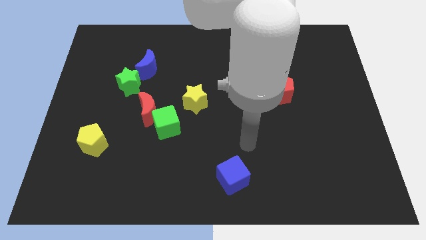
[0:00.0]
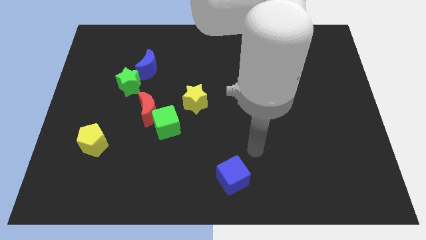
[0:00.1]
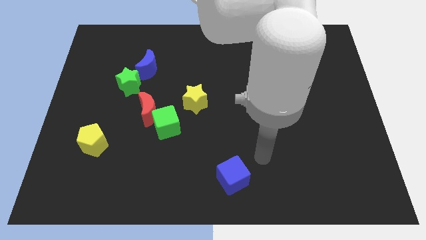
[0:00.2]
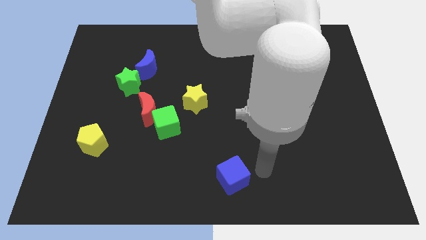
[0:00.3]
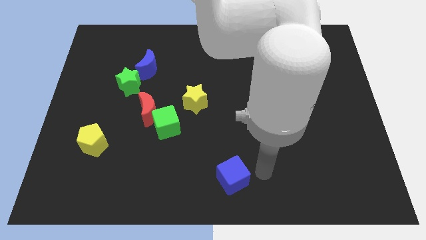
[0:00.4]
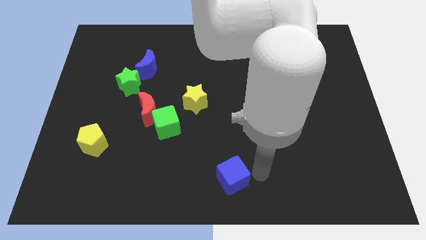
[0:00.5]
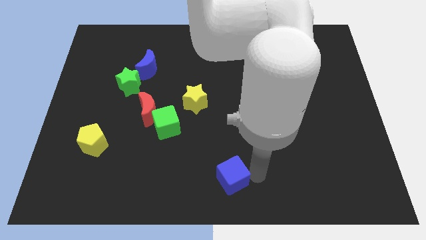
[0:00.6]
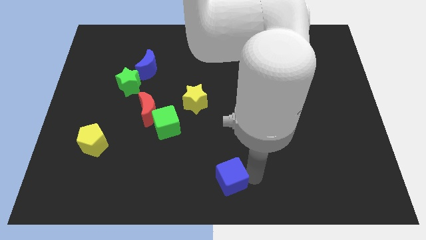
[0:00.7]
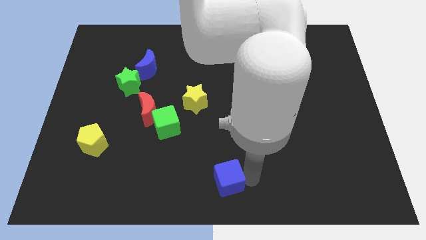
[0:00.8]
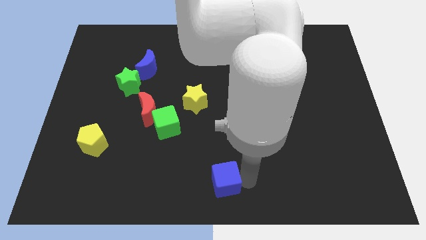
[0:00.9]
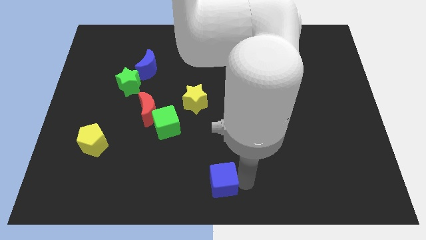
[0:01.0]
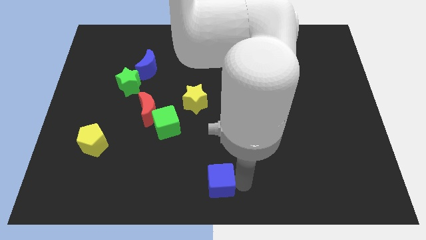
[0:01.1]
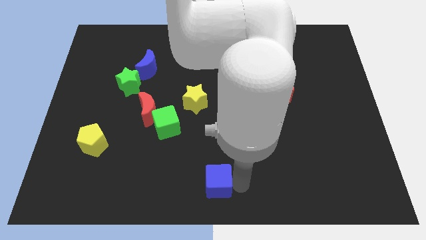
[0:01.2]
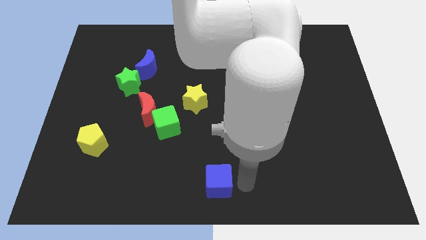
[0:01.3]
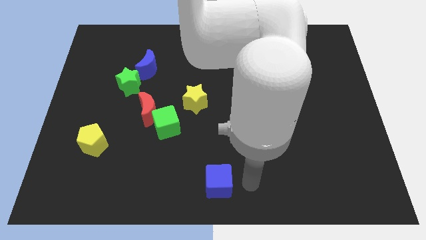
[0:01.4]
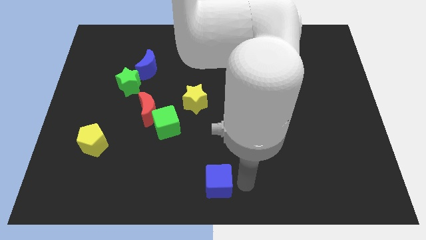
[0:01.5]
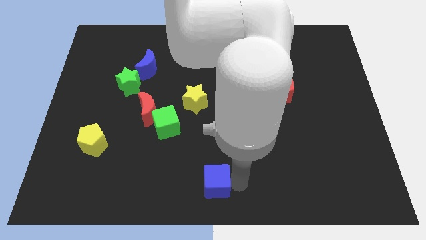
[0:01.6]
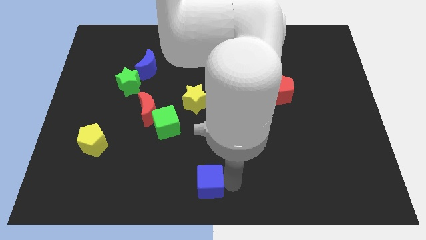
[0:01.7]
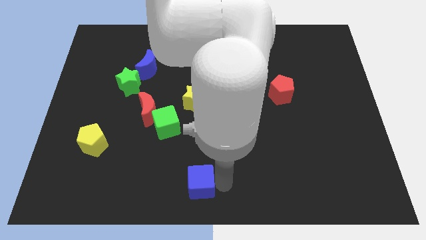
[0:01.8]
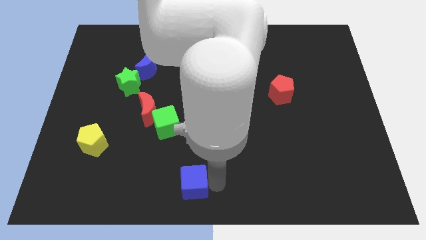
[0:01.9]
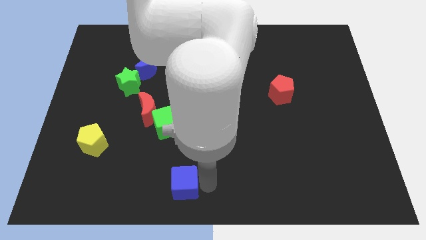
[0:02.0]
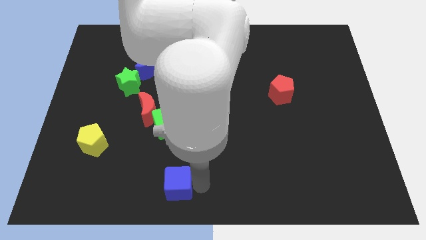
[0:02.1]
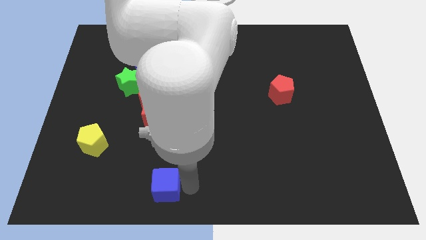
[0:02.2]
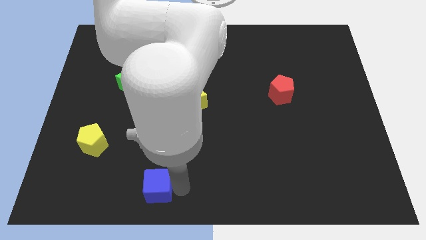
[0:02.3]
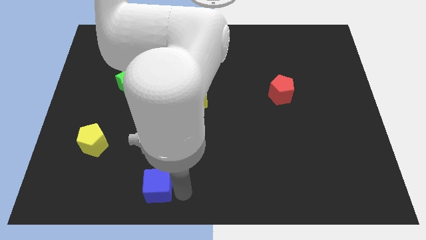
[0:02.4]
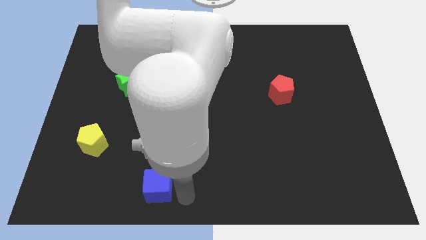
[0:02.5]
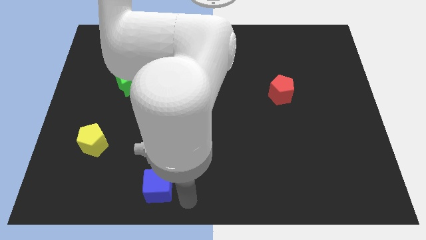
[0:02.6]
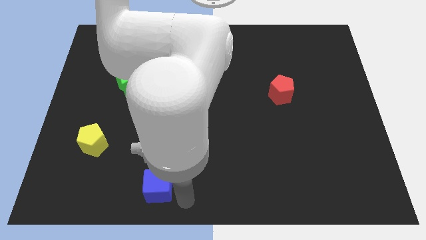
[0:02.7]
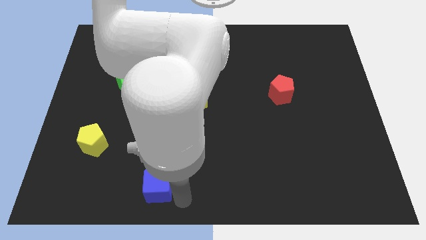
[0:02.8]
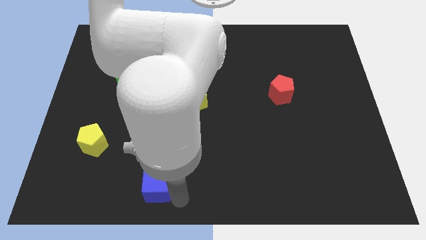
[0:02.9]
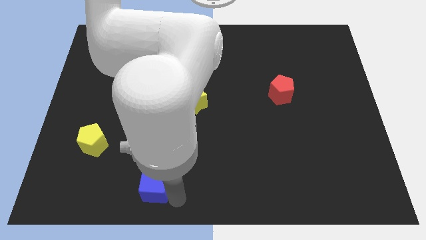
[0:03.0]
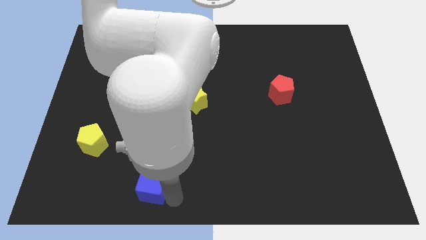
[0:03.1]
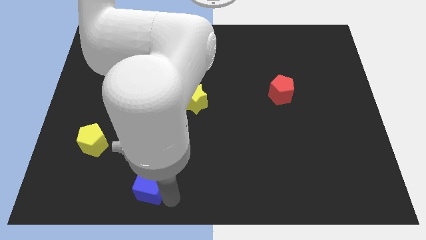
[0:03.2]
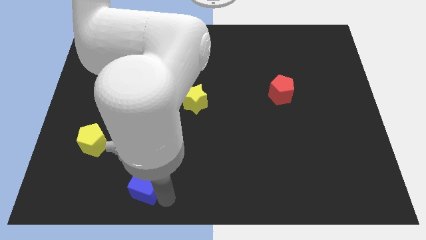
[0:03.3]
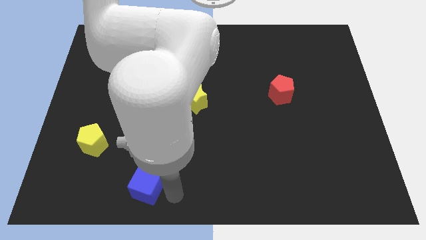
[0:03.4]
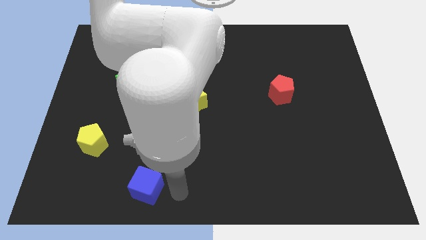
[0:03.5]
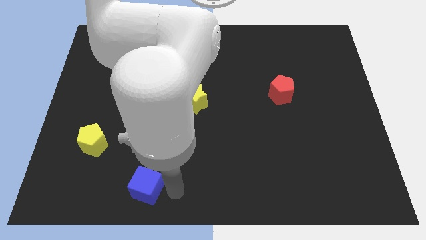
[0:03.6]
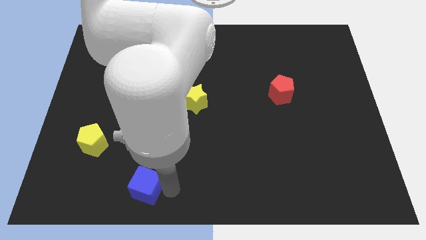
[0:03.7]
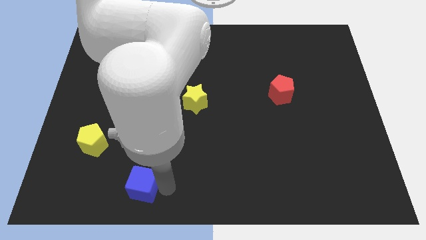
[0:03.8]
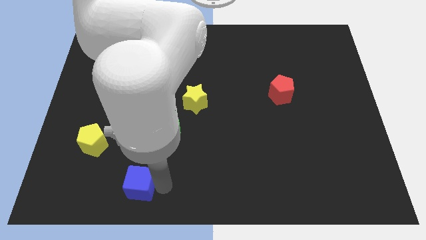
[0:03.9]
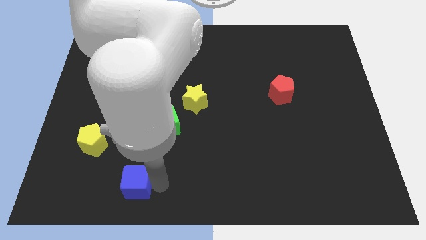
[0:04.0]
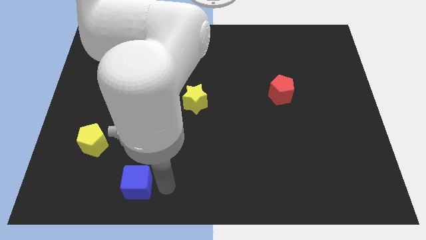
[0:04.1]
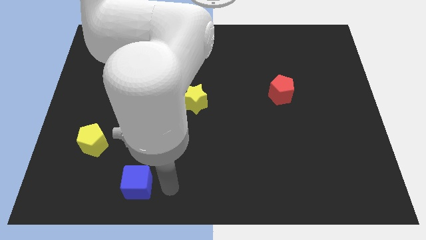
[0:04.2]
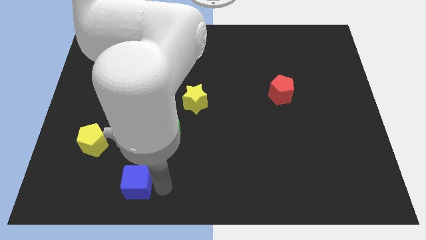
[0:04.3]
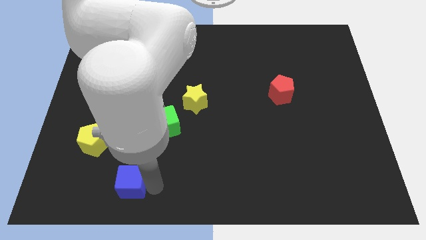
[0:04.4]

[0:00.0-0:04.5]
move the blue cube left

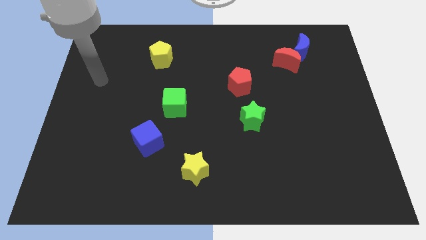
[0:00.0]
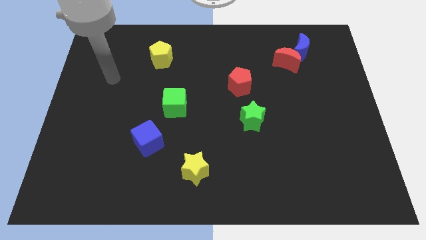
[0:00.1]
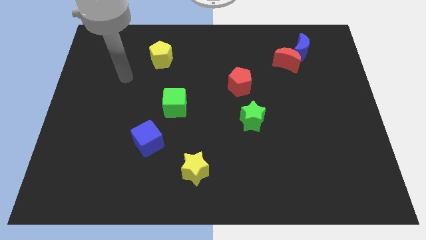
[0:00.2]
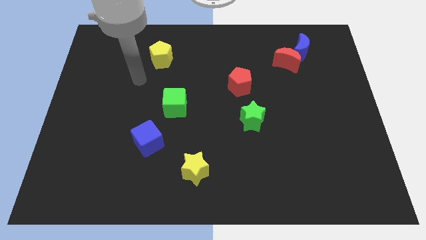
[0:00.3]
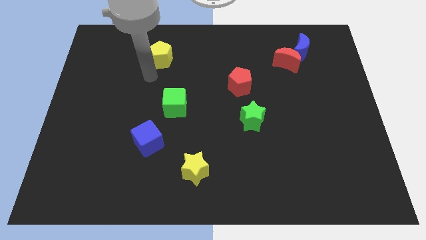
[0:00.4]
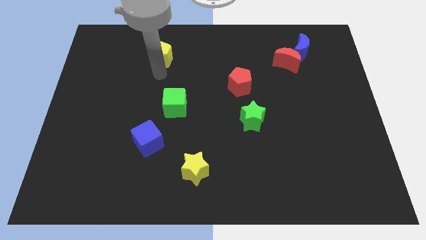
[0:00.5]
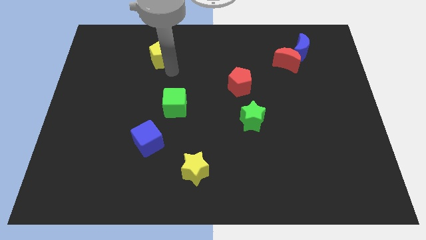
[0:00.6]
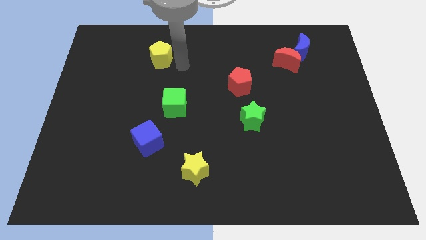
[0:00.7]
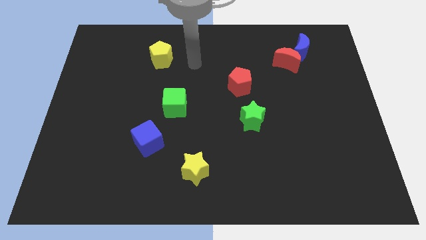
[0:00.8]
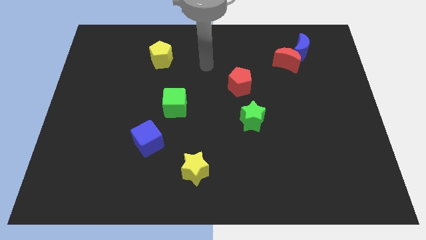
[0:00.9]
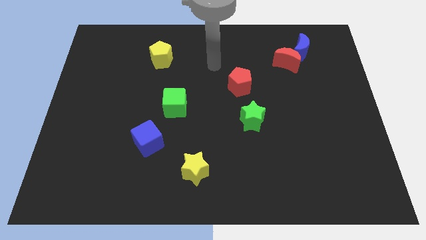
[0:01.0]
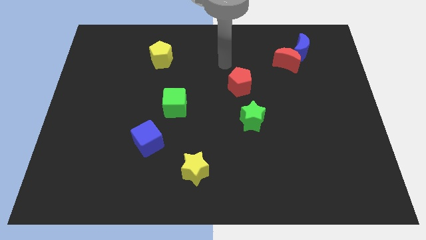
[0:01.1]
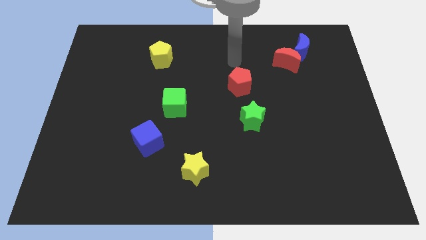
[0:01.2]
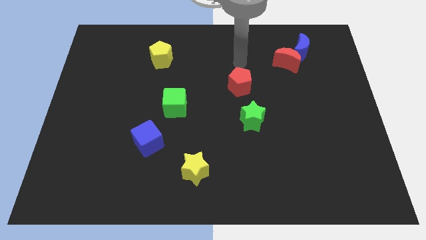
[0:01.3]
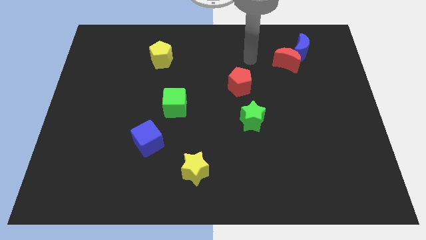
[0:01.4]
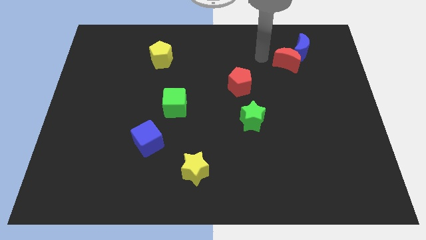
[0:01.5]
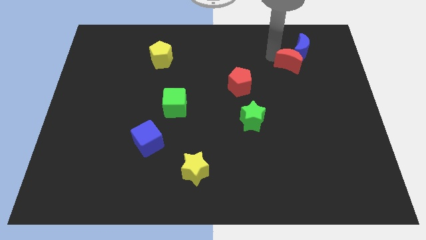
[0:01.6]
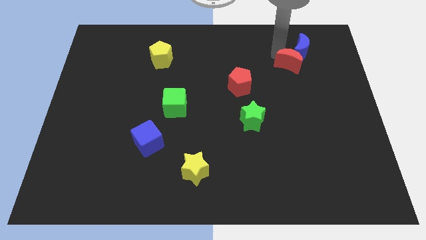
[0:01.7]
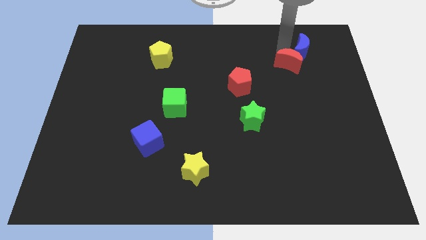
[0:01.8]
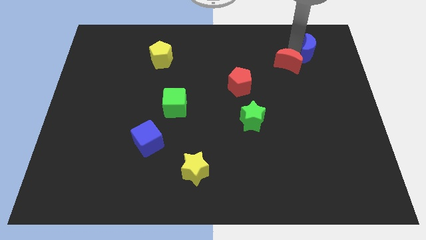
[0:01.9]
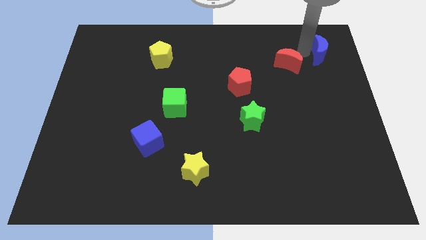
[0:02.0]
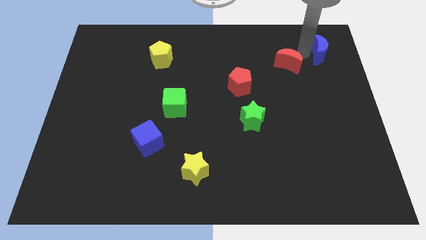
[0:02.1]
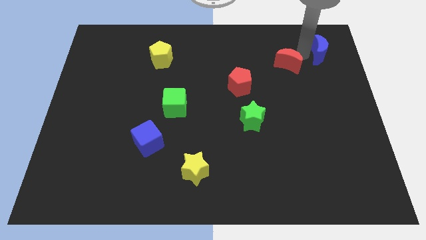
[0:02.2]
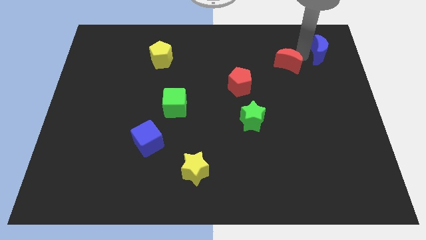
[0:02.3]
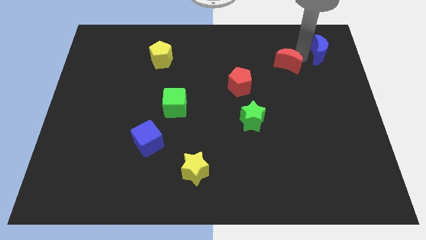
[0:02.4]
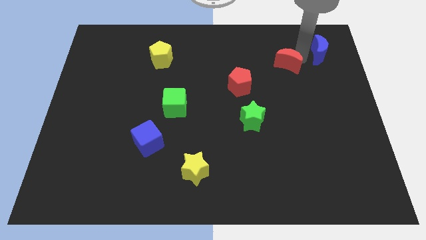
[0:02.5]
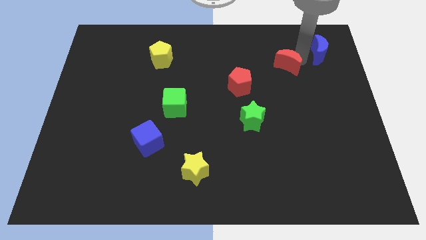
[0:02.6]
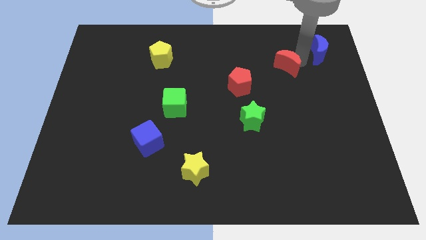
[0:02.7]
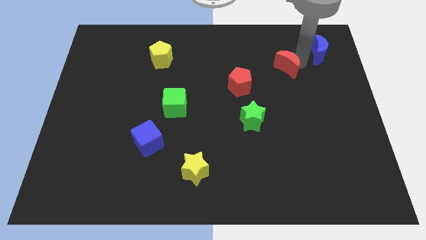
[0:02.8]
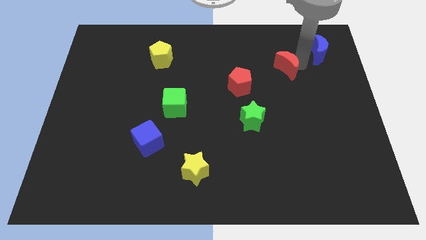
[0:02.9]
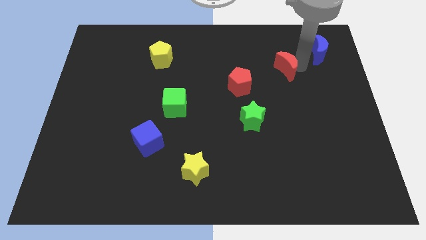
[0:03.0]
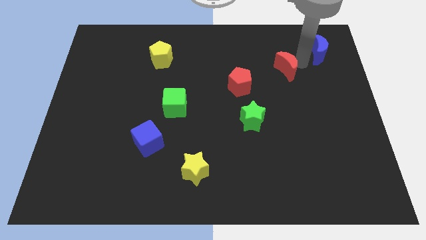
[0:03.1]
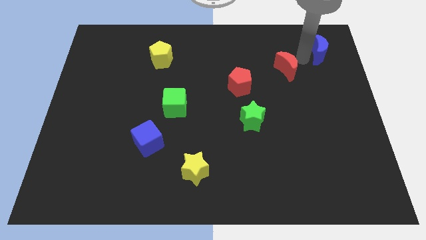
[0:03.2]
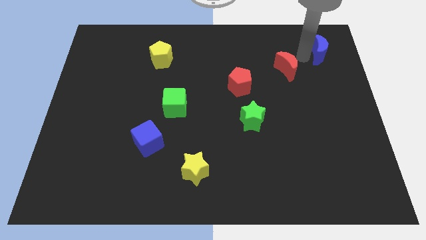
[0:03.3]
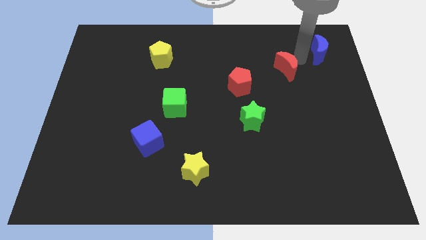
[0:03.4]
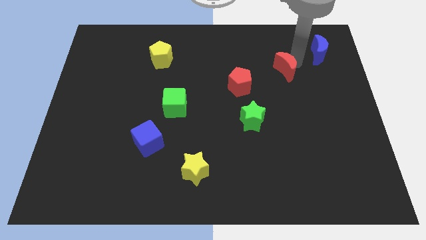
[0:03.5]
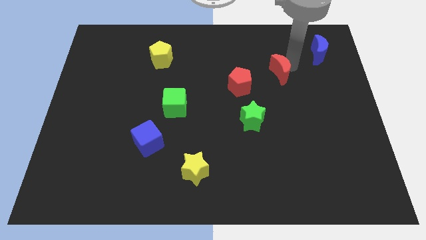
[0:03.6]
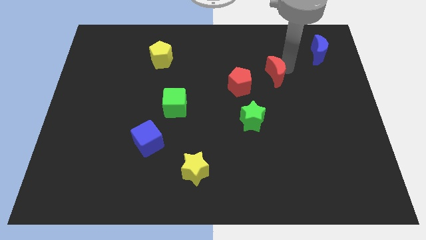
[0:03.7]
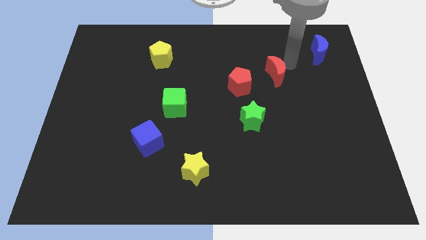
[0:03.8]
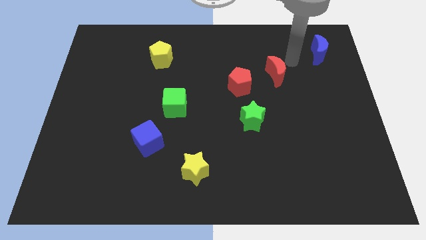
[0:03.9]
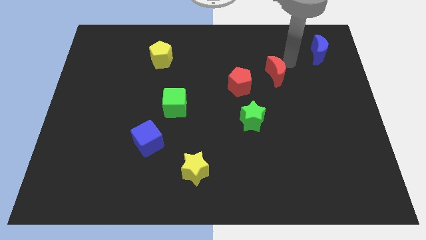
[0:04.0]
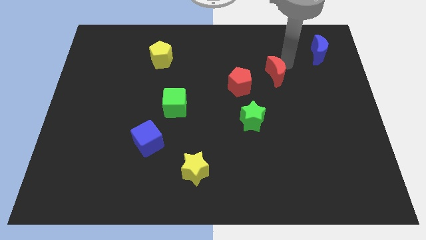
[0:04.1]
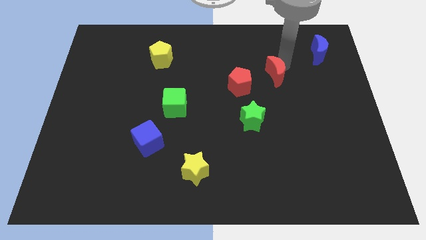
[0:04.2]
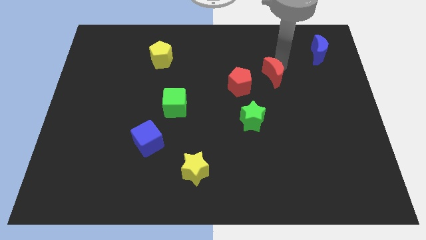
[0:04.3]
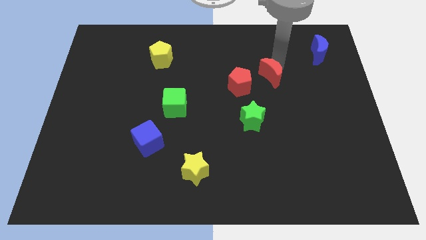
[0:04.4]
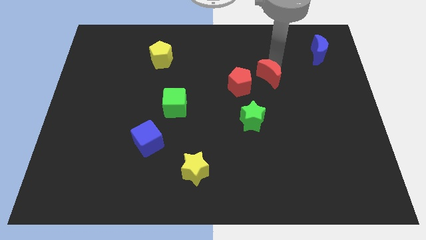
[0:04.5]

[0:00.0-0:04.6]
slide the red moon downwards and to the left somewhat
